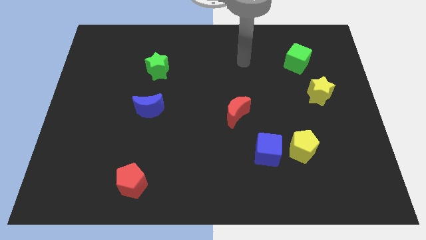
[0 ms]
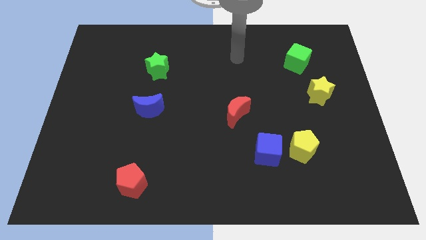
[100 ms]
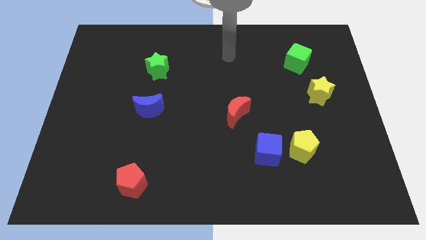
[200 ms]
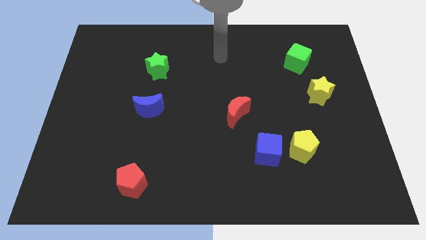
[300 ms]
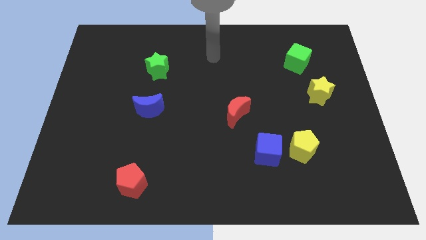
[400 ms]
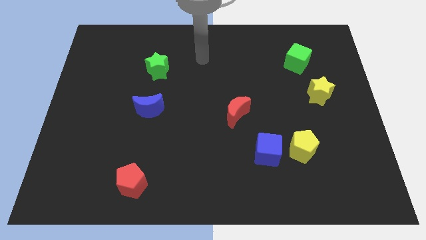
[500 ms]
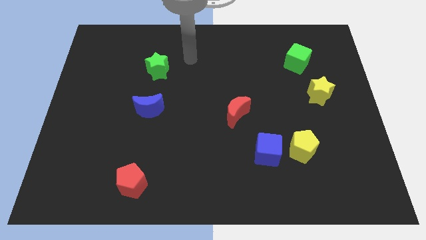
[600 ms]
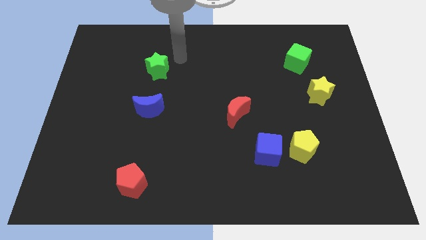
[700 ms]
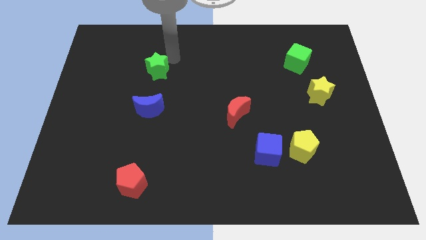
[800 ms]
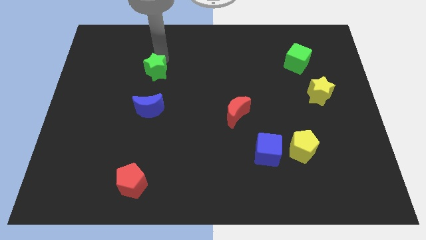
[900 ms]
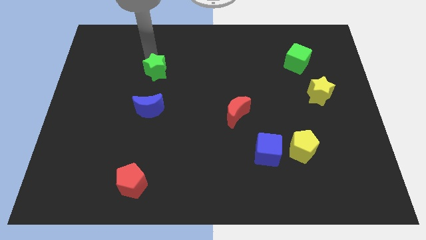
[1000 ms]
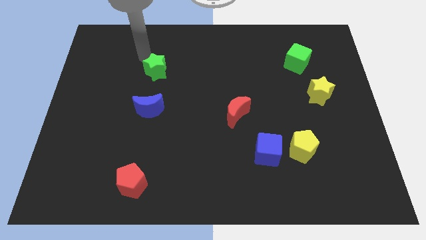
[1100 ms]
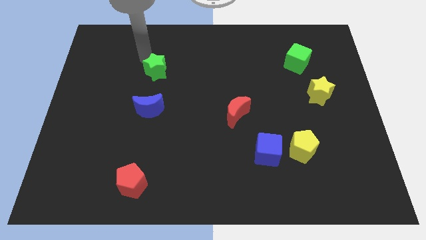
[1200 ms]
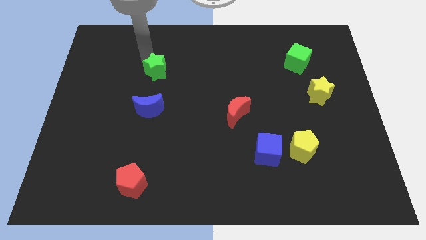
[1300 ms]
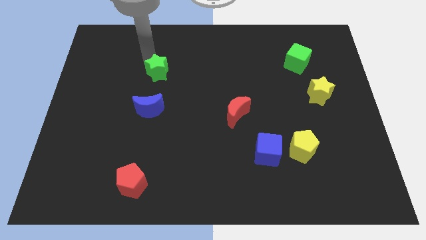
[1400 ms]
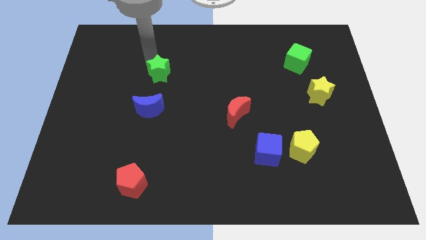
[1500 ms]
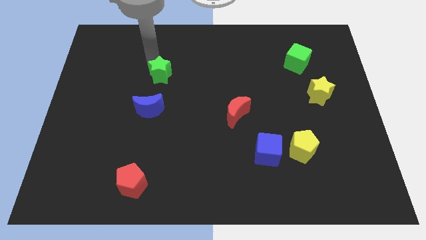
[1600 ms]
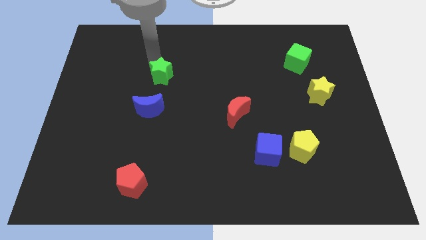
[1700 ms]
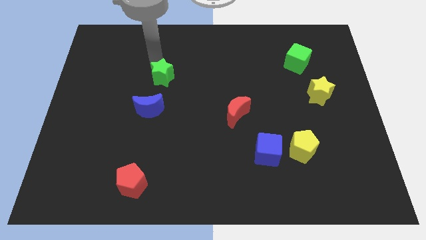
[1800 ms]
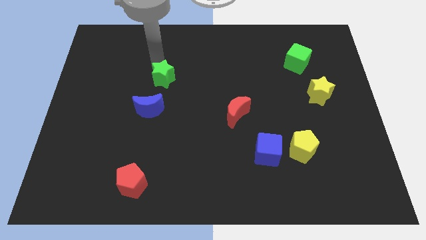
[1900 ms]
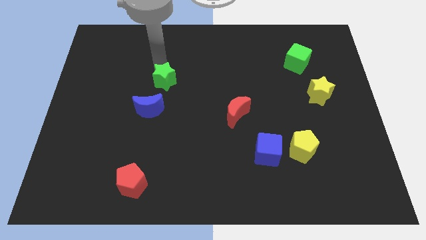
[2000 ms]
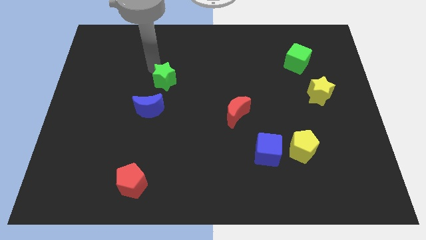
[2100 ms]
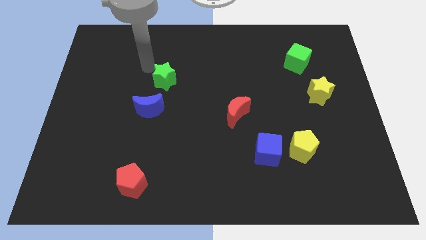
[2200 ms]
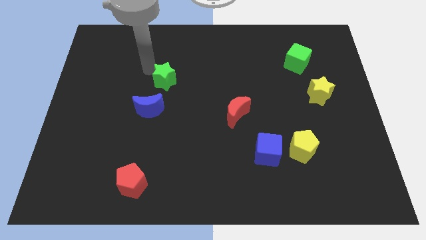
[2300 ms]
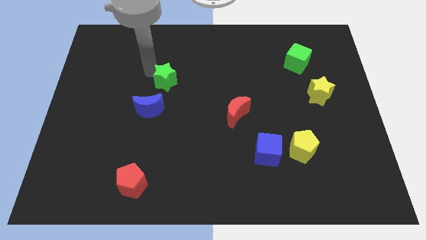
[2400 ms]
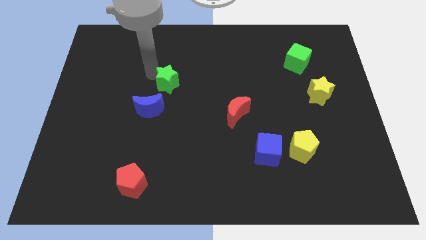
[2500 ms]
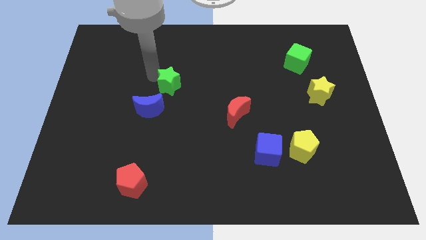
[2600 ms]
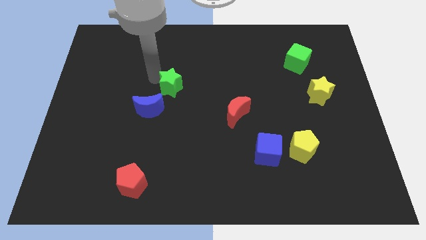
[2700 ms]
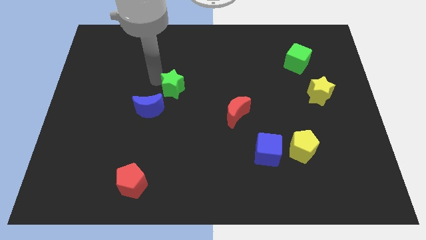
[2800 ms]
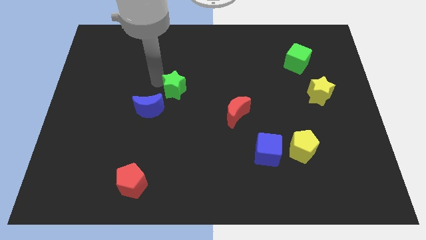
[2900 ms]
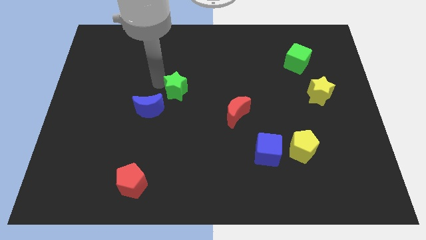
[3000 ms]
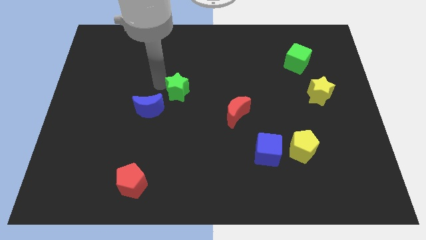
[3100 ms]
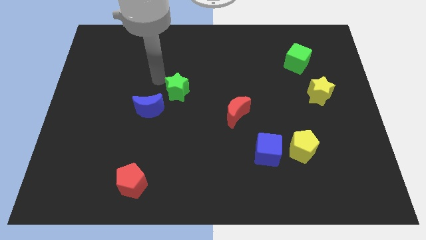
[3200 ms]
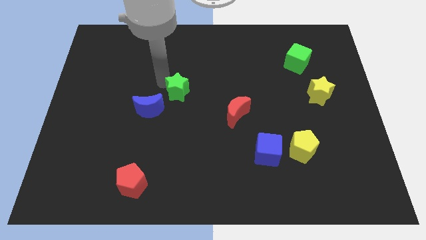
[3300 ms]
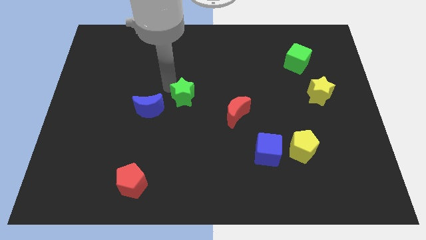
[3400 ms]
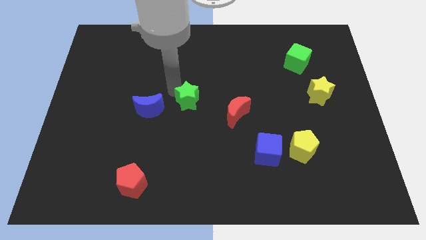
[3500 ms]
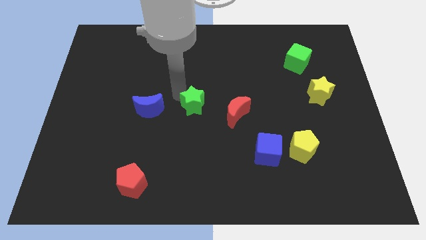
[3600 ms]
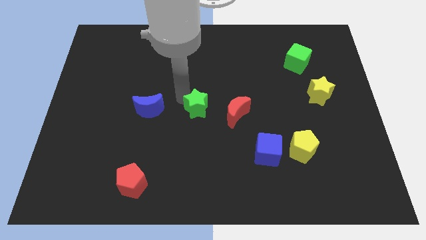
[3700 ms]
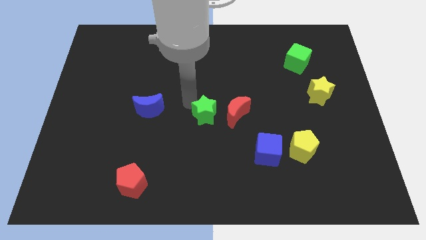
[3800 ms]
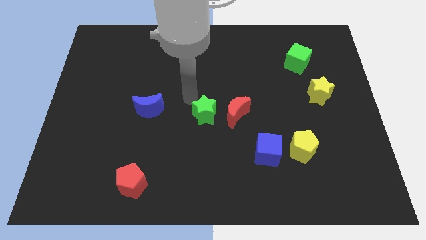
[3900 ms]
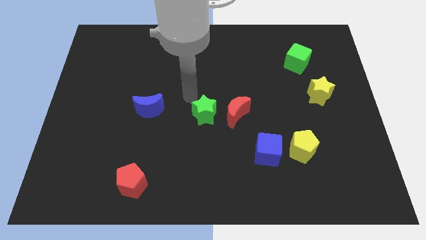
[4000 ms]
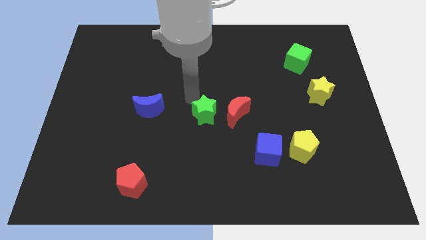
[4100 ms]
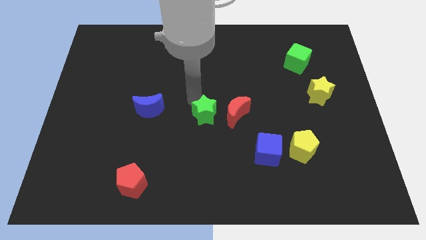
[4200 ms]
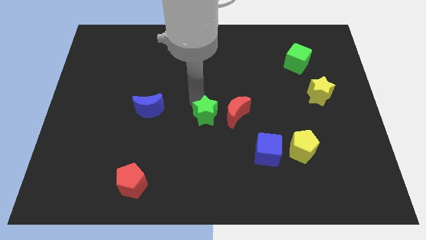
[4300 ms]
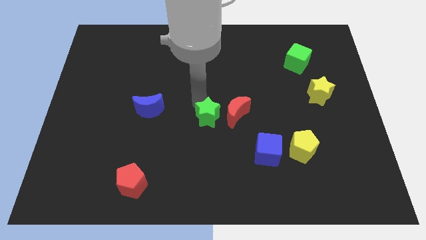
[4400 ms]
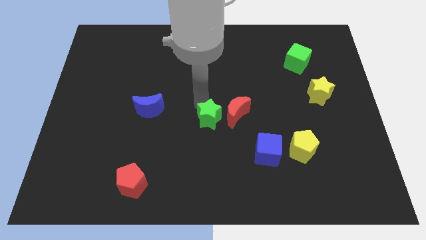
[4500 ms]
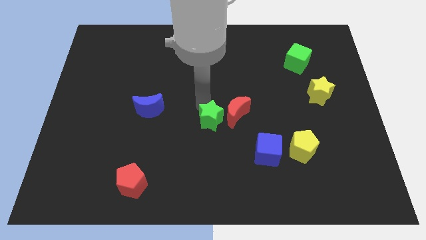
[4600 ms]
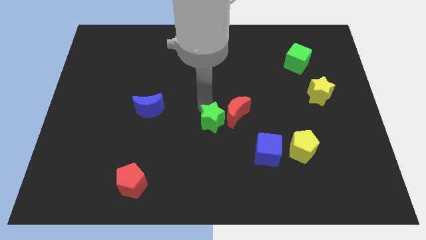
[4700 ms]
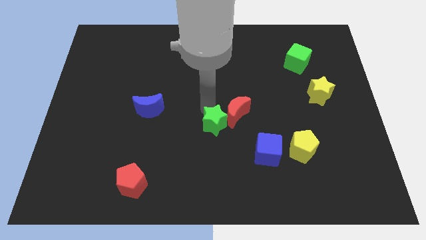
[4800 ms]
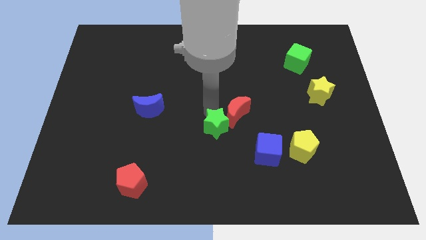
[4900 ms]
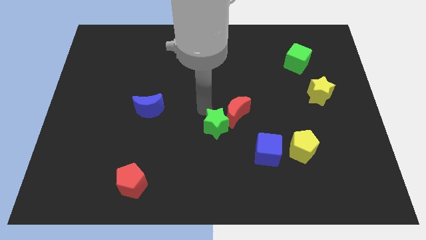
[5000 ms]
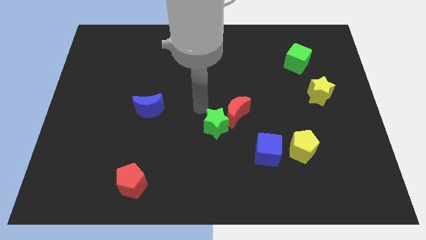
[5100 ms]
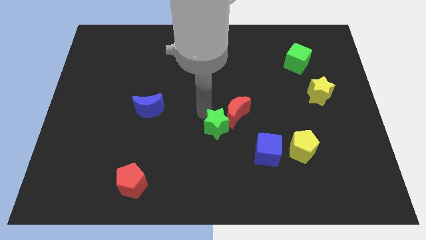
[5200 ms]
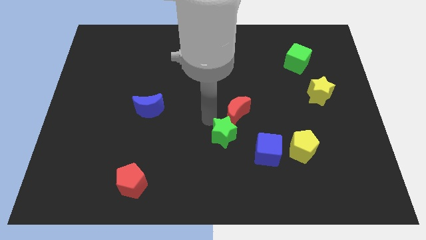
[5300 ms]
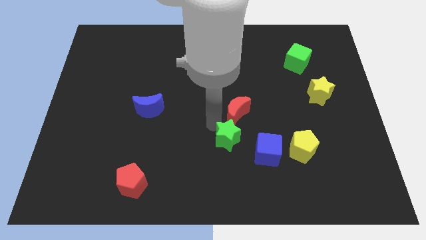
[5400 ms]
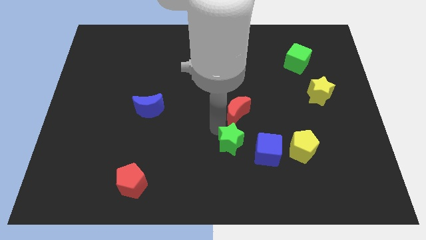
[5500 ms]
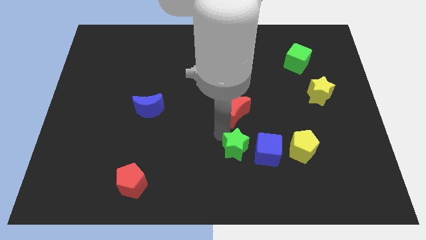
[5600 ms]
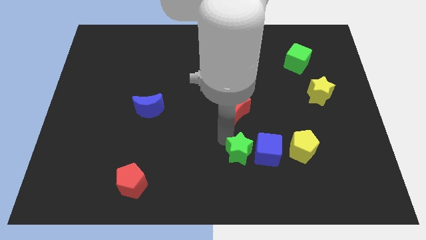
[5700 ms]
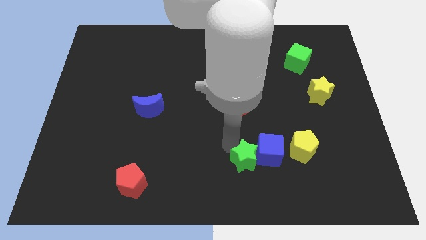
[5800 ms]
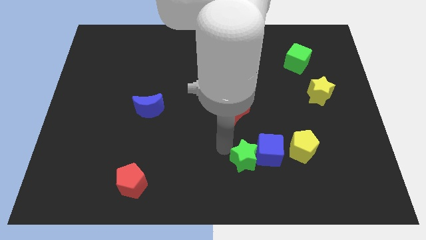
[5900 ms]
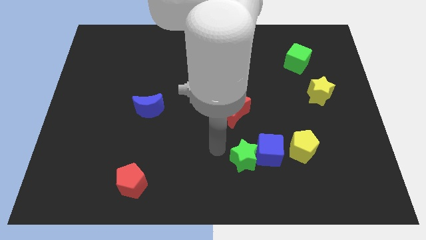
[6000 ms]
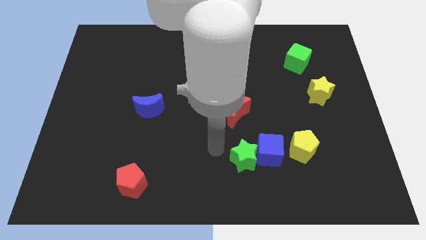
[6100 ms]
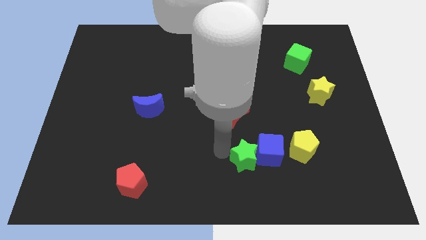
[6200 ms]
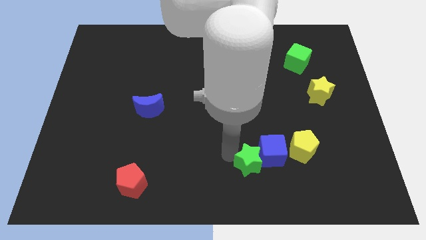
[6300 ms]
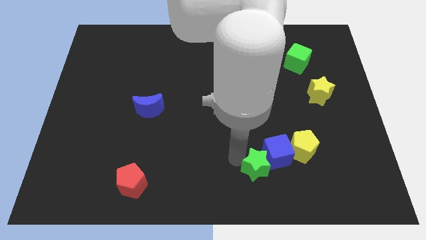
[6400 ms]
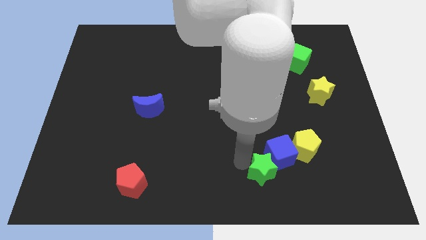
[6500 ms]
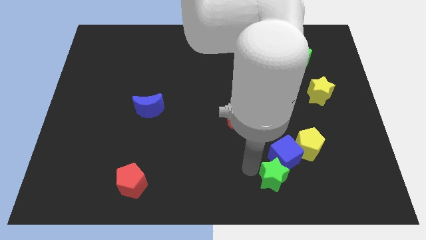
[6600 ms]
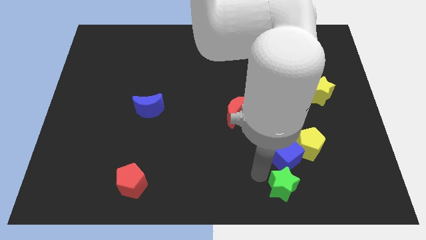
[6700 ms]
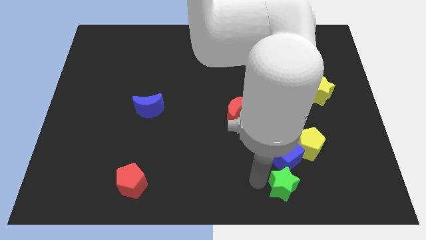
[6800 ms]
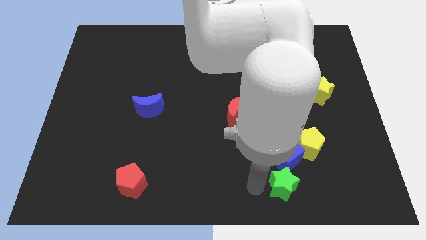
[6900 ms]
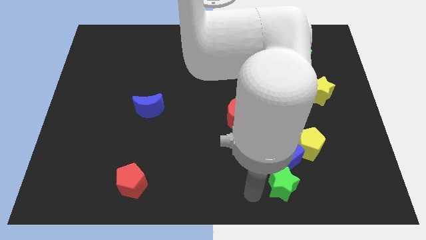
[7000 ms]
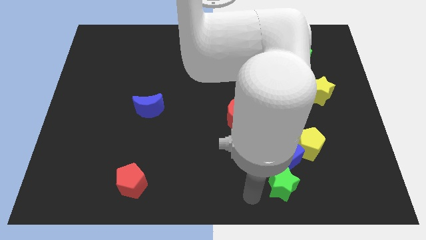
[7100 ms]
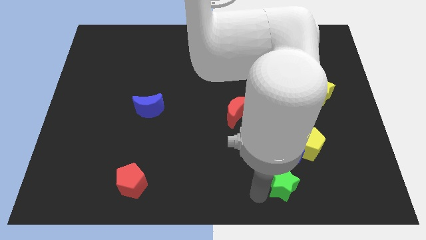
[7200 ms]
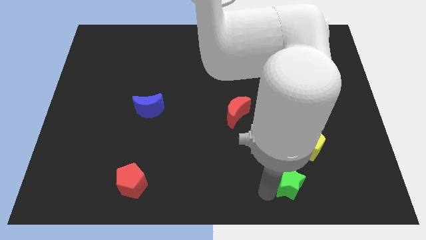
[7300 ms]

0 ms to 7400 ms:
put the green star diagonally down and to the right of the blue cube

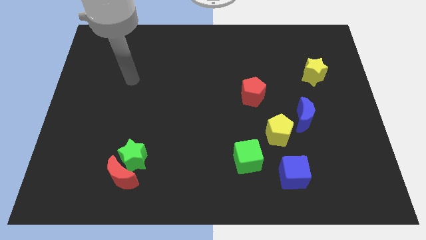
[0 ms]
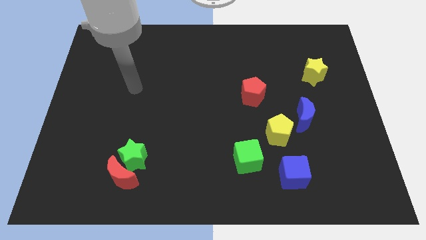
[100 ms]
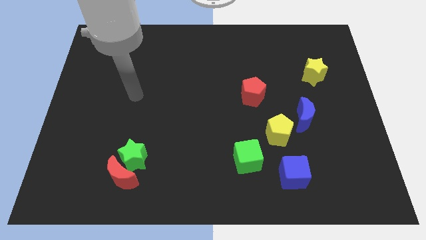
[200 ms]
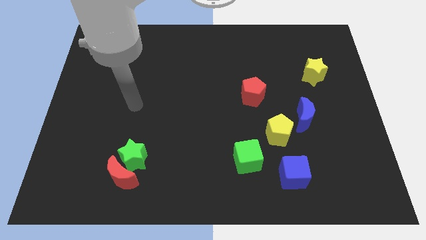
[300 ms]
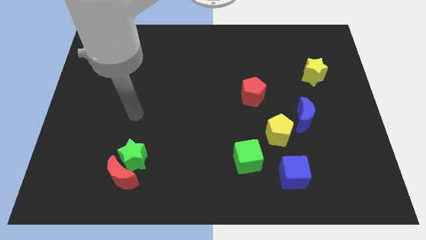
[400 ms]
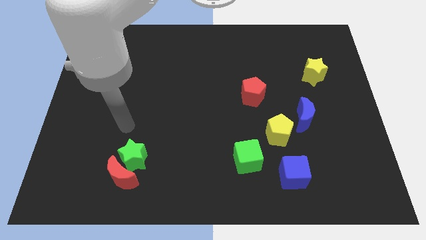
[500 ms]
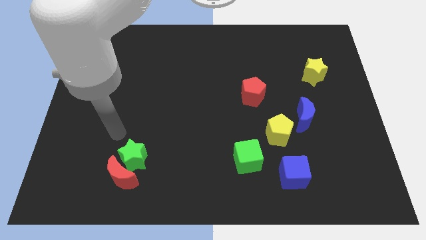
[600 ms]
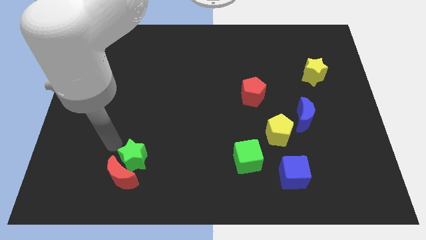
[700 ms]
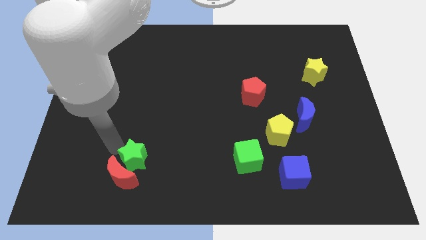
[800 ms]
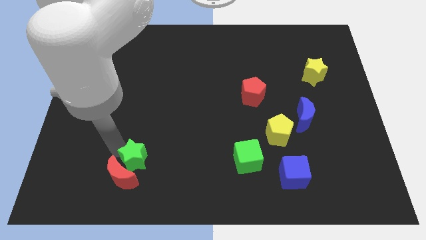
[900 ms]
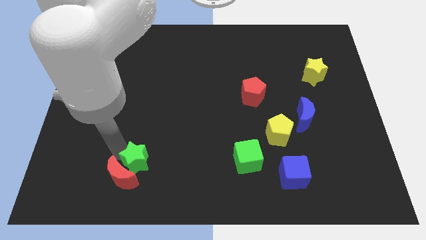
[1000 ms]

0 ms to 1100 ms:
slide the green star right of the red moon
